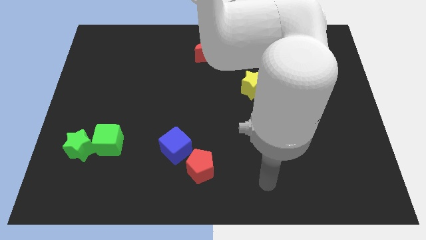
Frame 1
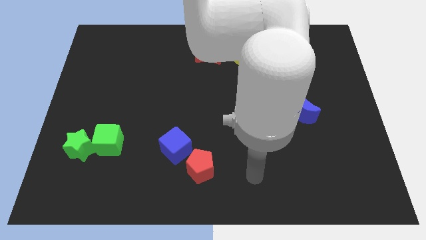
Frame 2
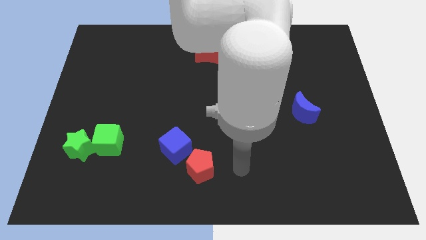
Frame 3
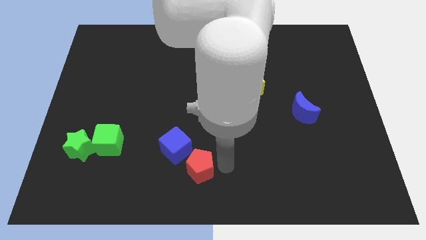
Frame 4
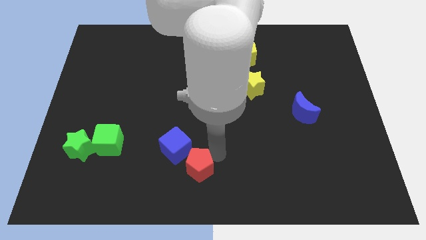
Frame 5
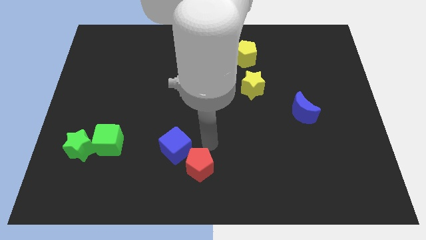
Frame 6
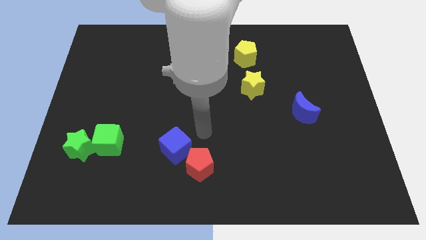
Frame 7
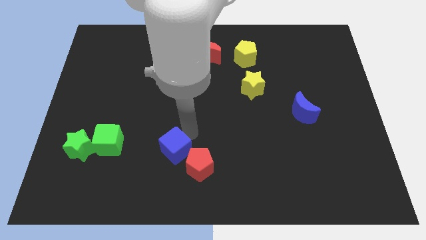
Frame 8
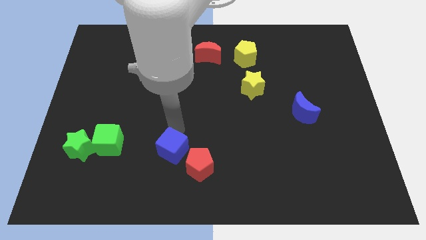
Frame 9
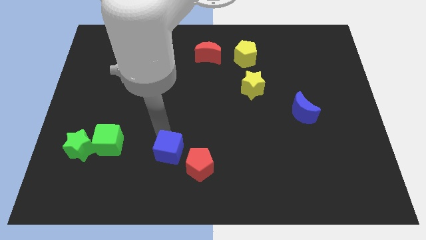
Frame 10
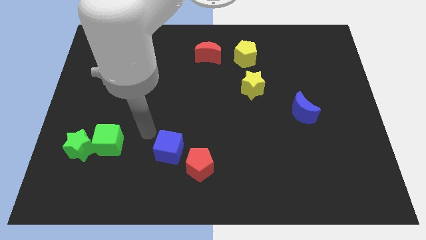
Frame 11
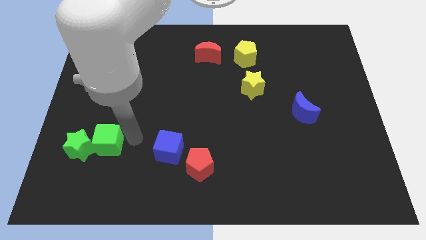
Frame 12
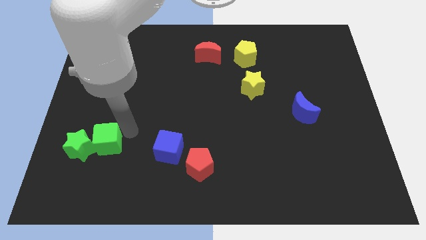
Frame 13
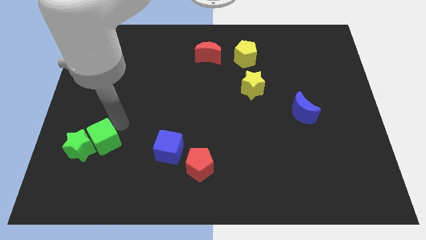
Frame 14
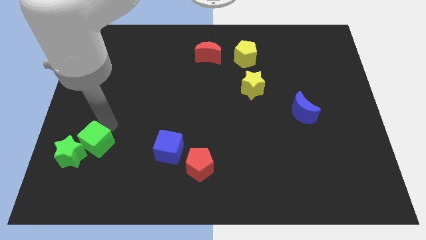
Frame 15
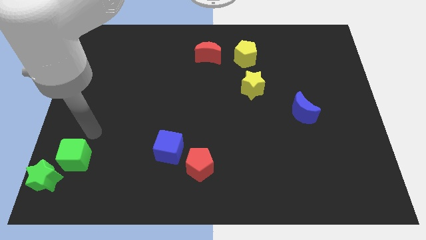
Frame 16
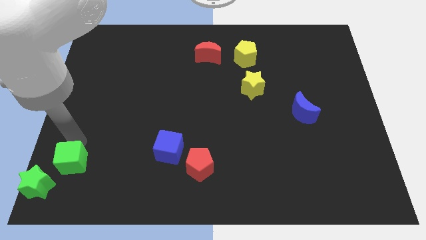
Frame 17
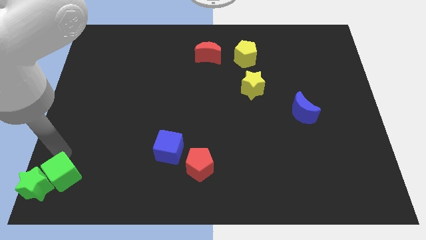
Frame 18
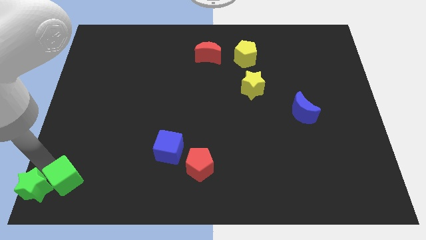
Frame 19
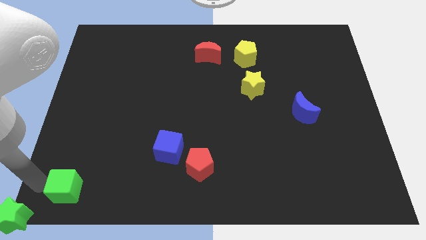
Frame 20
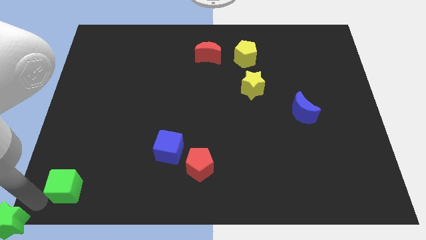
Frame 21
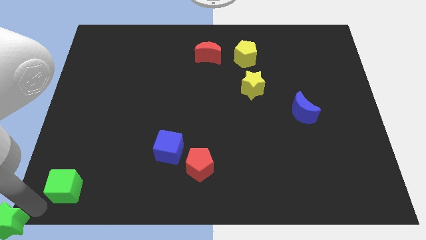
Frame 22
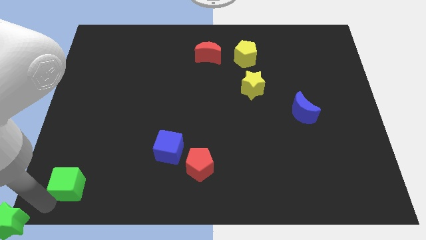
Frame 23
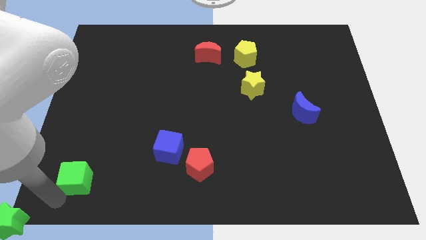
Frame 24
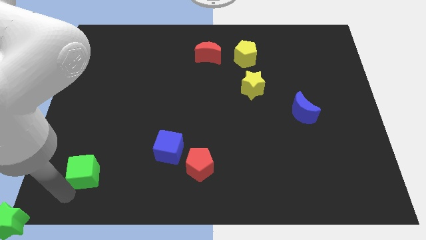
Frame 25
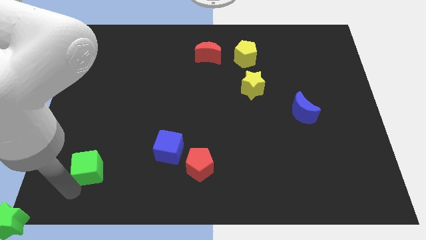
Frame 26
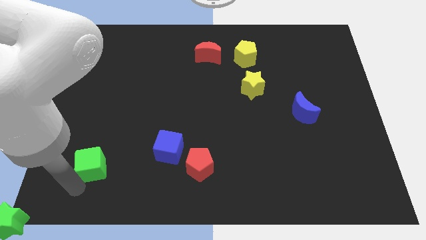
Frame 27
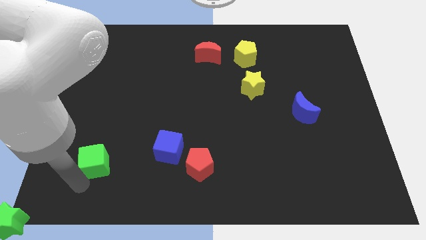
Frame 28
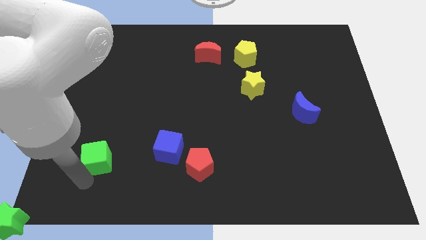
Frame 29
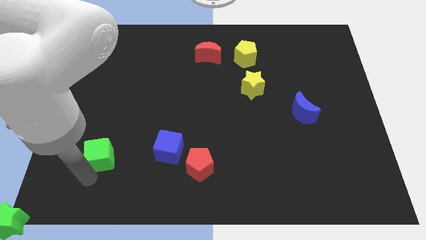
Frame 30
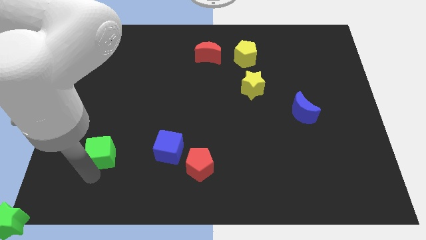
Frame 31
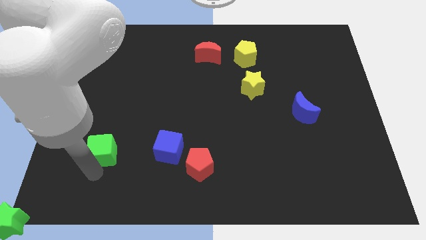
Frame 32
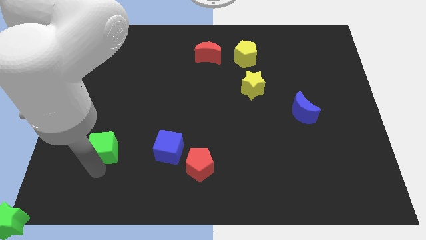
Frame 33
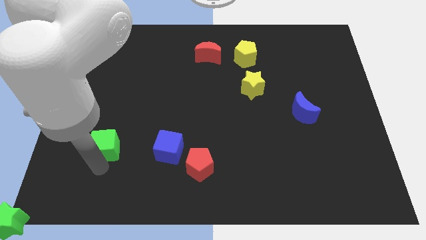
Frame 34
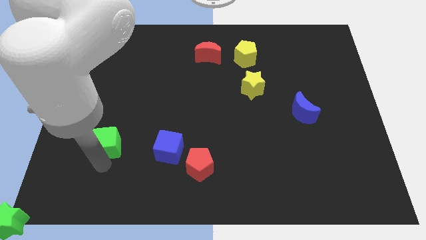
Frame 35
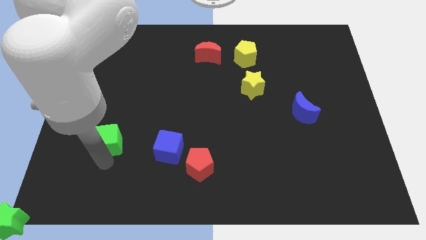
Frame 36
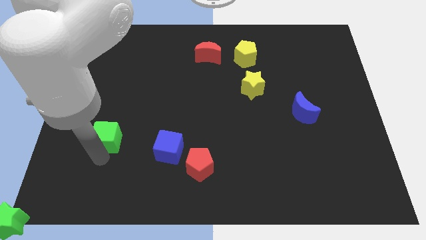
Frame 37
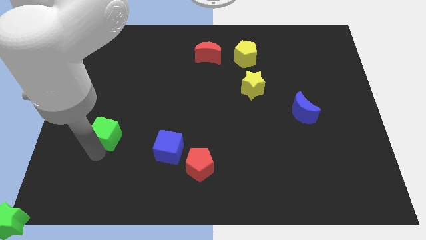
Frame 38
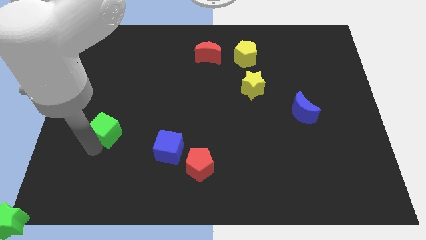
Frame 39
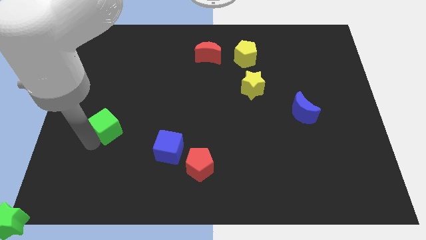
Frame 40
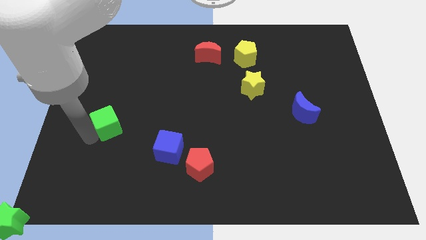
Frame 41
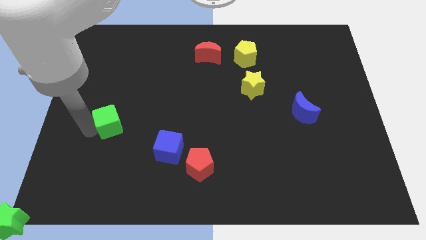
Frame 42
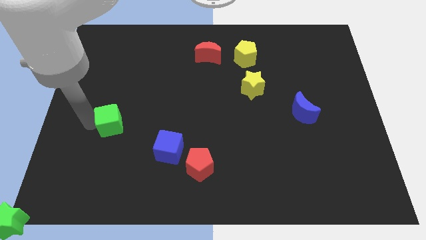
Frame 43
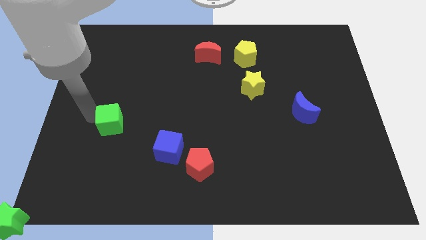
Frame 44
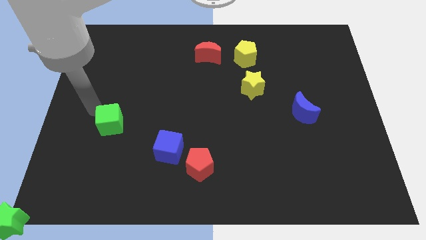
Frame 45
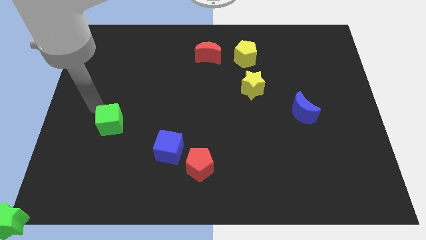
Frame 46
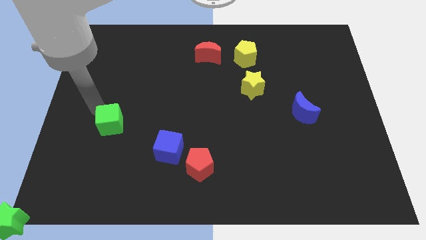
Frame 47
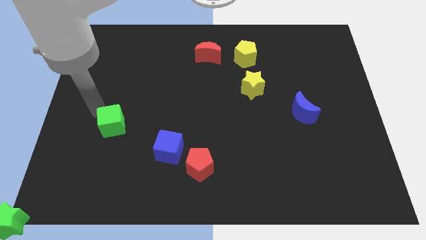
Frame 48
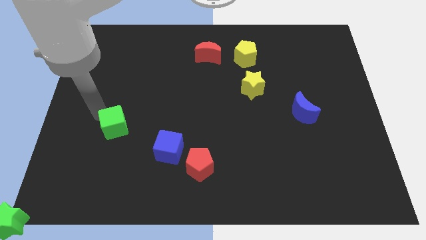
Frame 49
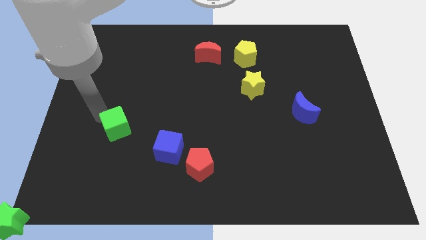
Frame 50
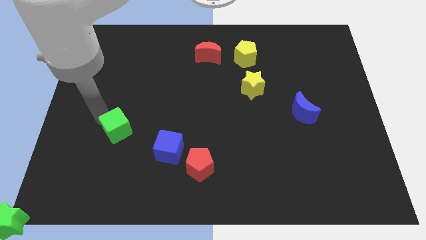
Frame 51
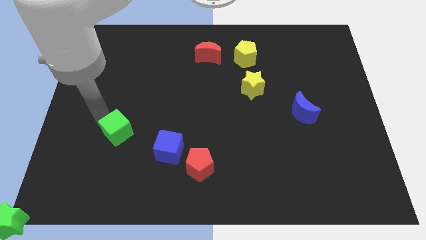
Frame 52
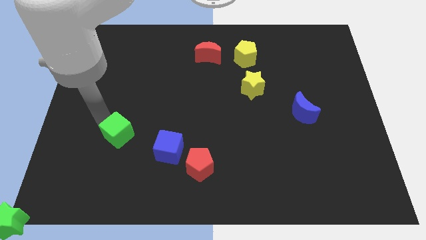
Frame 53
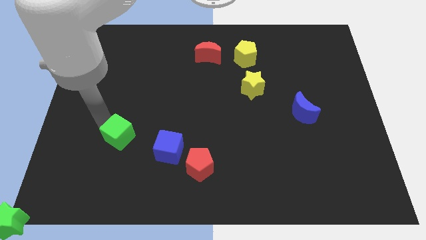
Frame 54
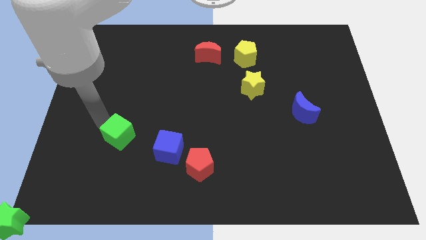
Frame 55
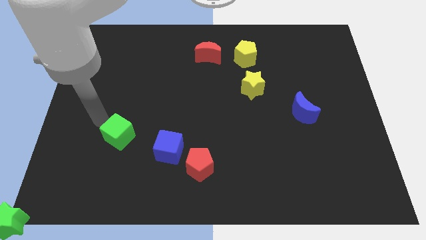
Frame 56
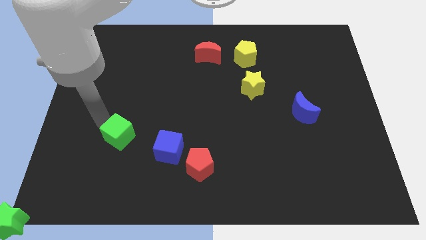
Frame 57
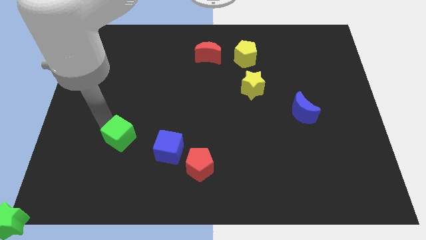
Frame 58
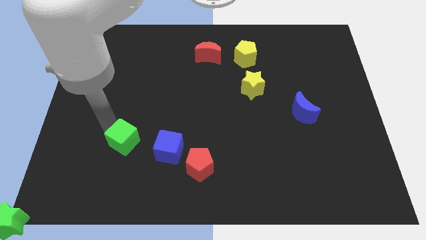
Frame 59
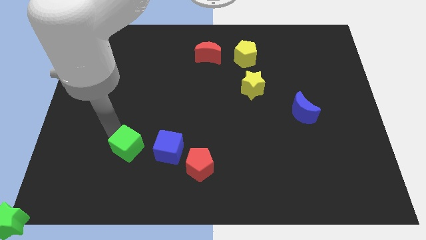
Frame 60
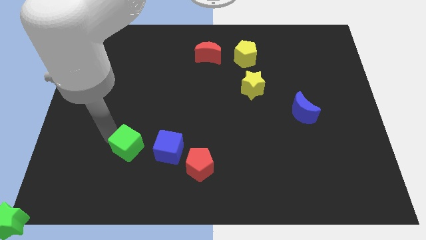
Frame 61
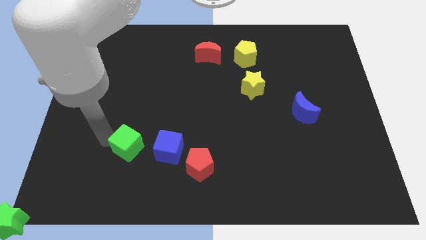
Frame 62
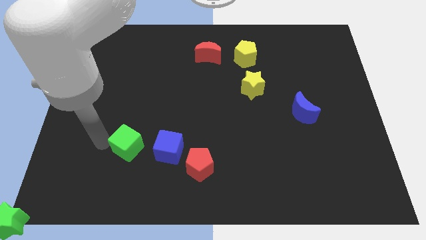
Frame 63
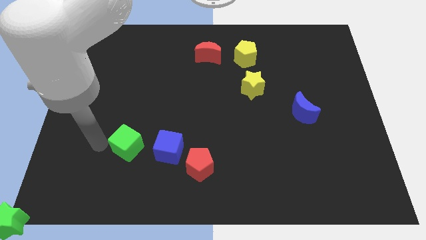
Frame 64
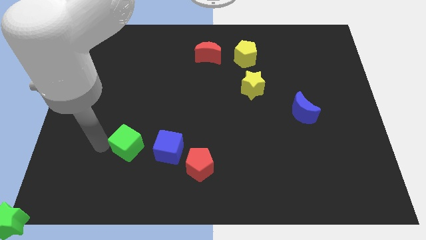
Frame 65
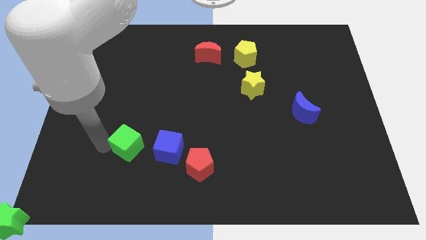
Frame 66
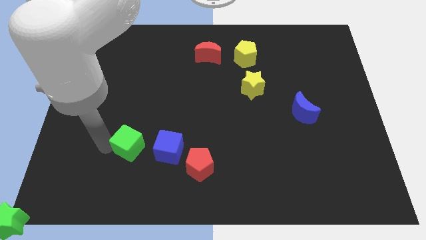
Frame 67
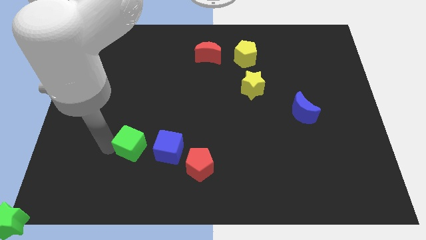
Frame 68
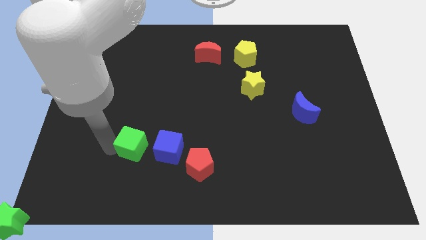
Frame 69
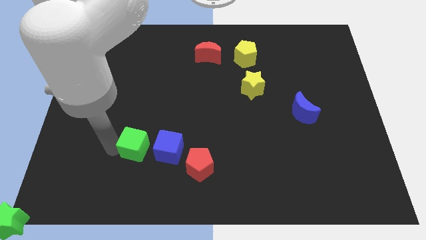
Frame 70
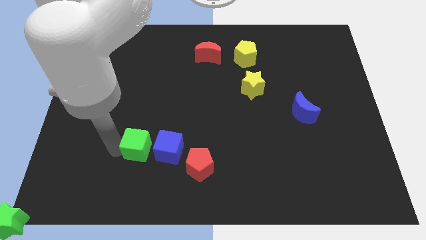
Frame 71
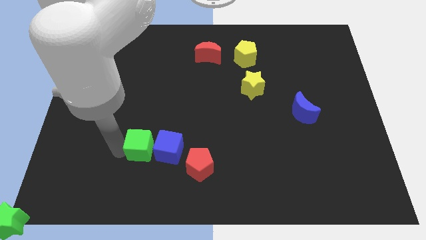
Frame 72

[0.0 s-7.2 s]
put the green cube to the blue cube
